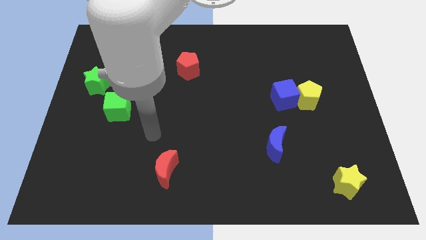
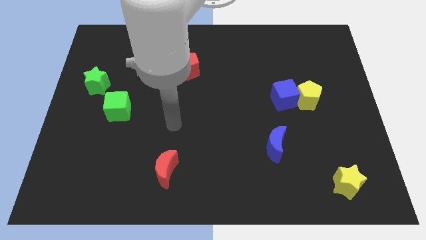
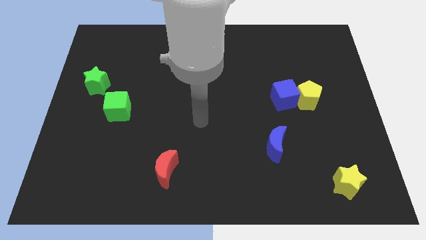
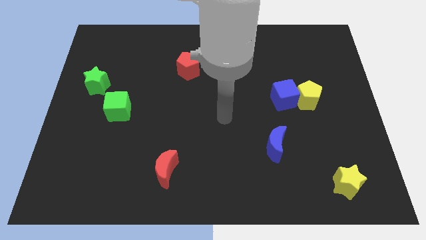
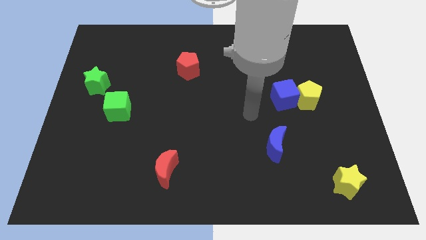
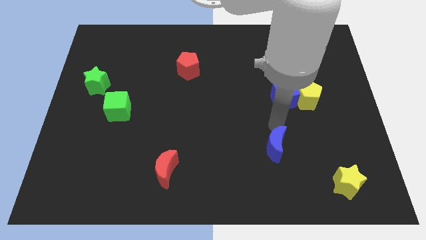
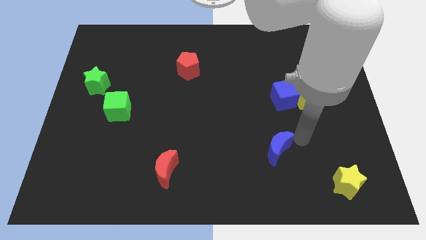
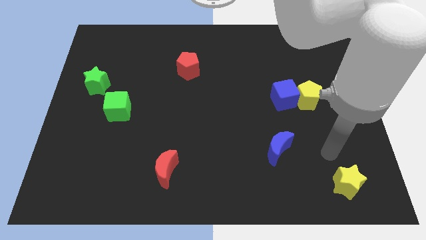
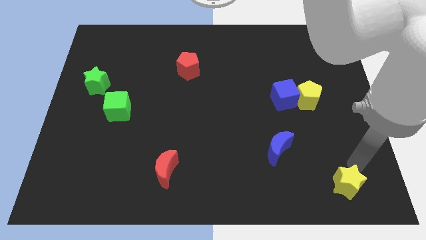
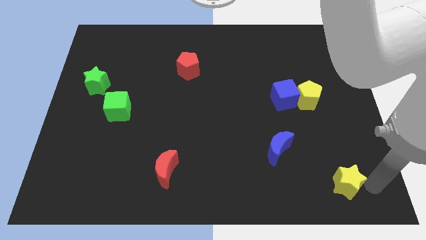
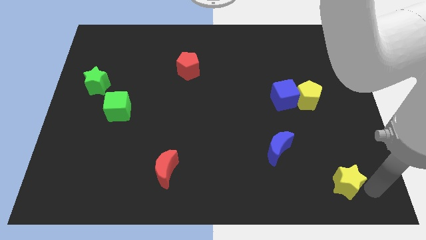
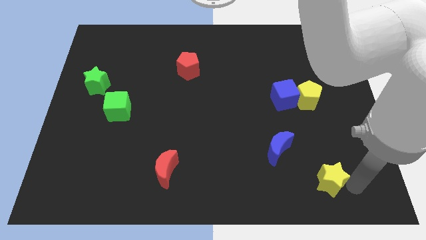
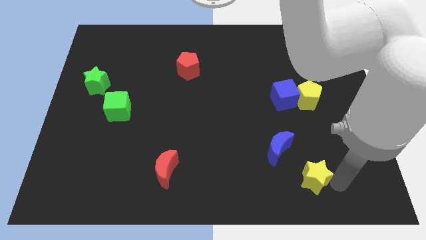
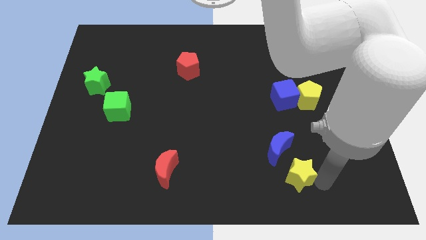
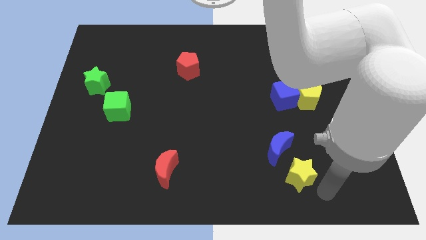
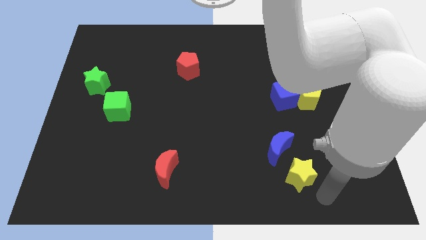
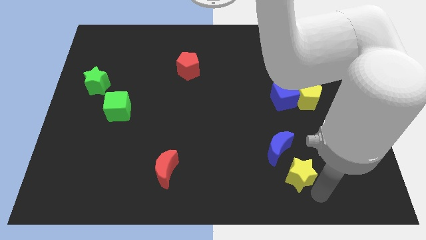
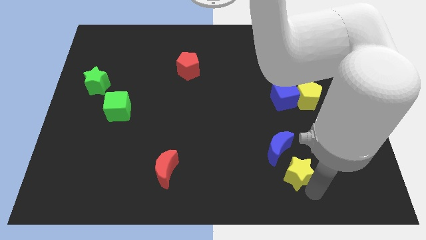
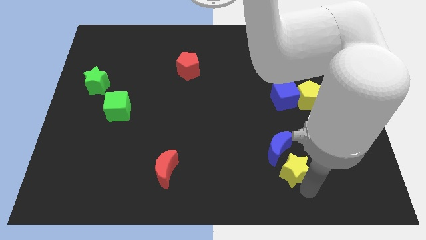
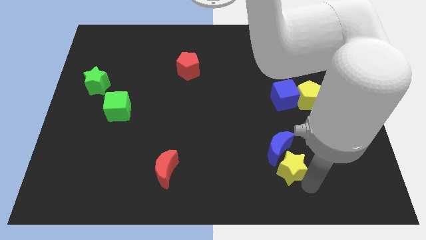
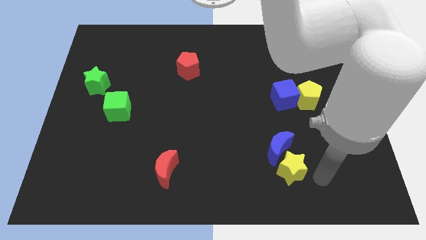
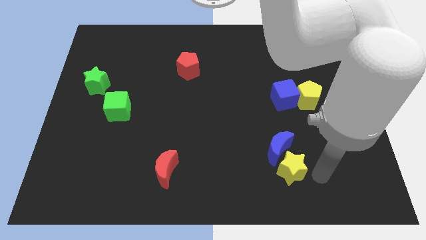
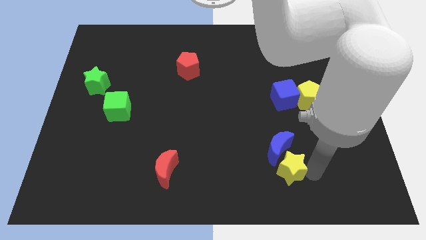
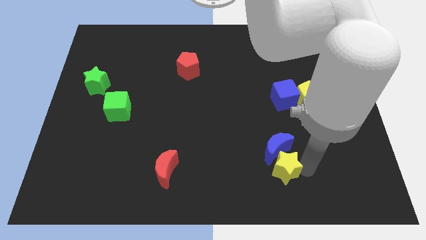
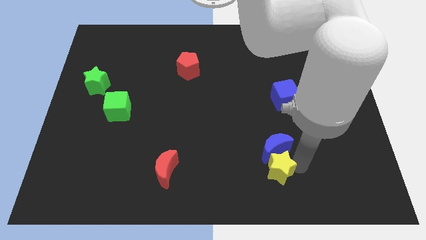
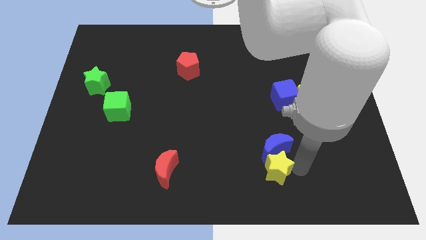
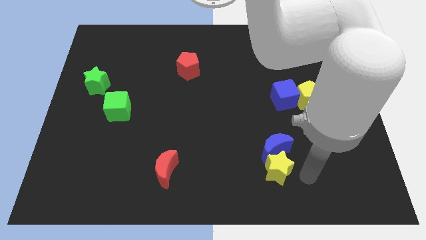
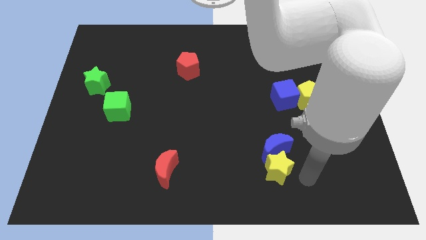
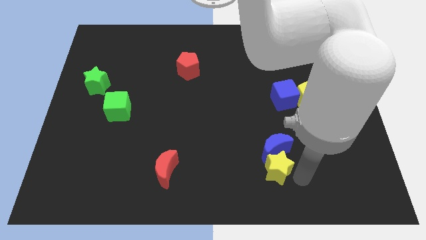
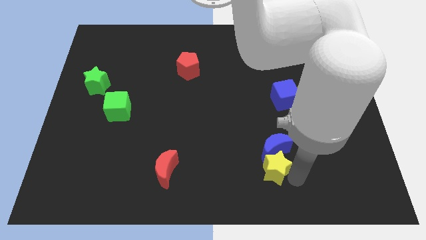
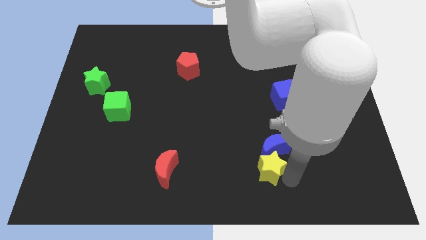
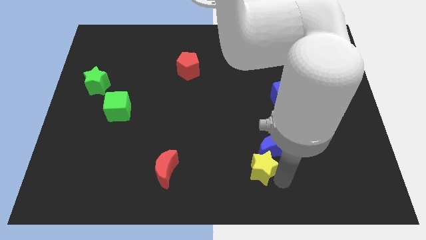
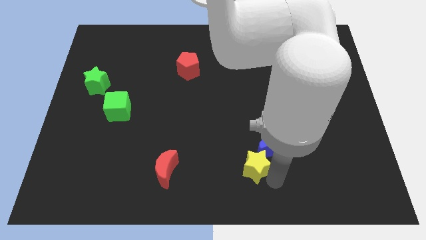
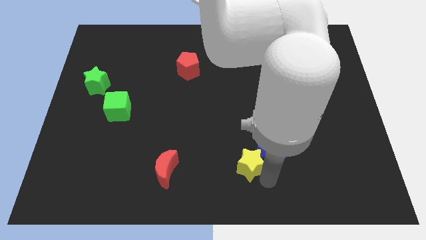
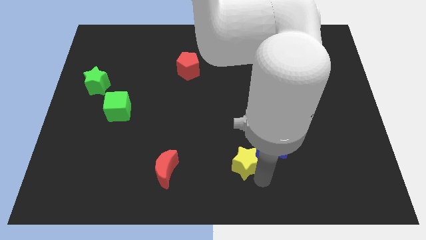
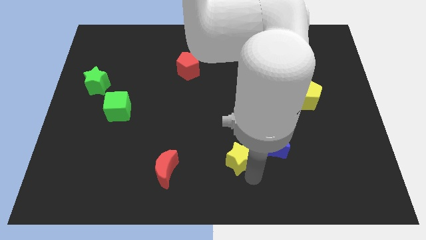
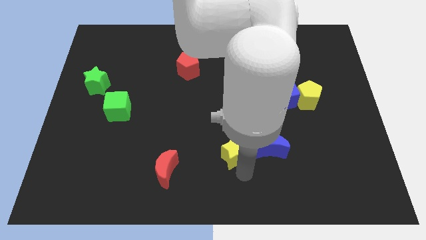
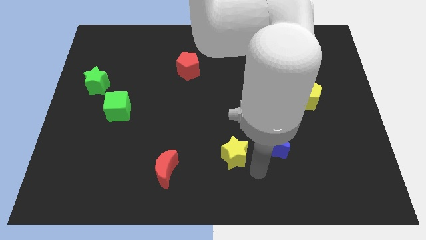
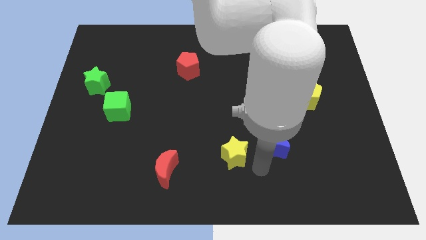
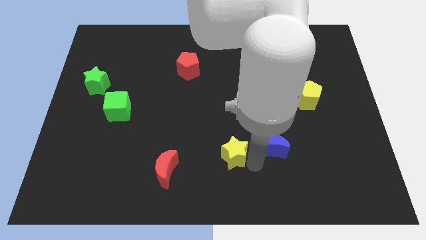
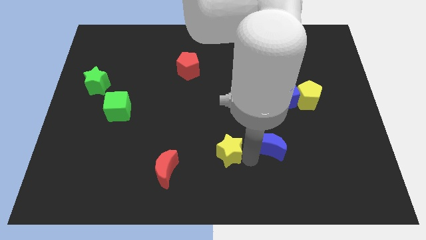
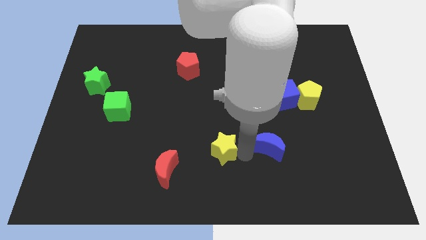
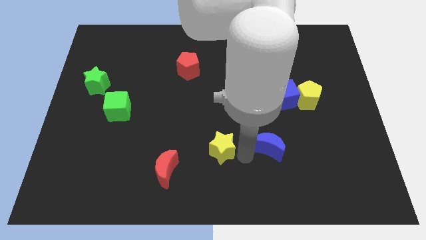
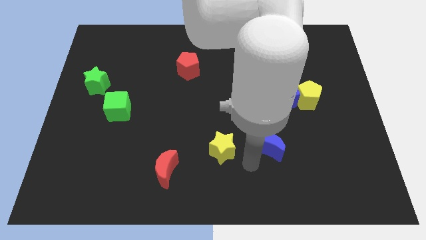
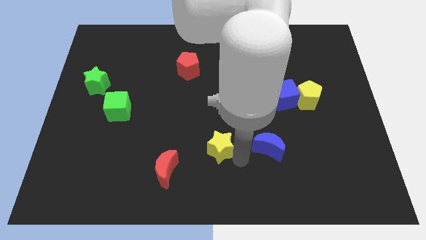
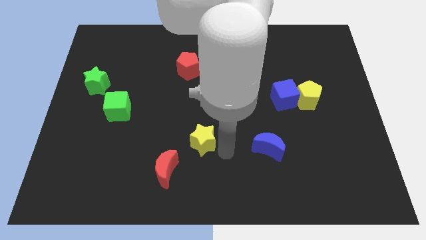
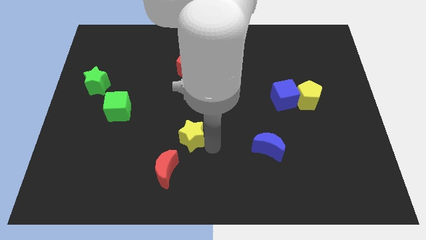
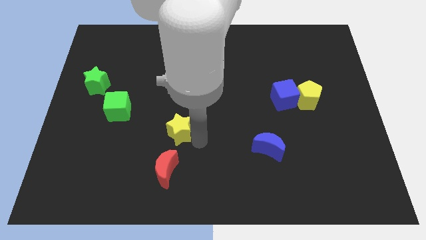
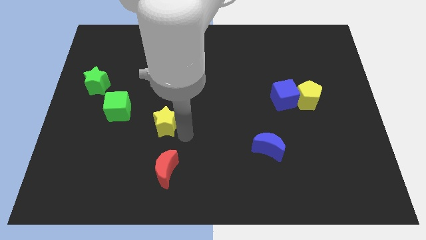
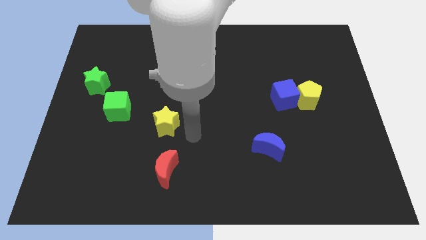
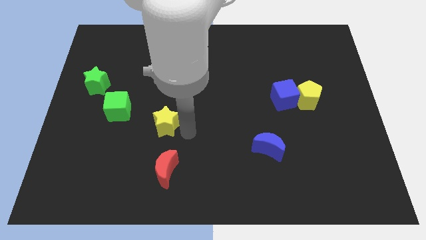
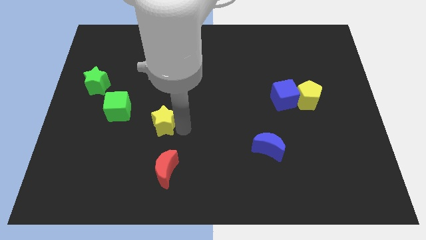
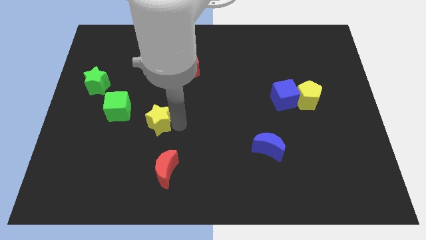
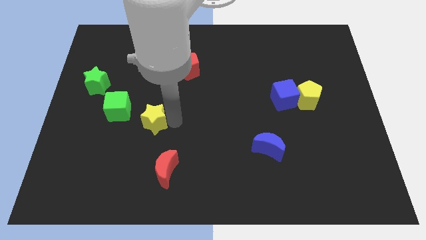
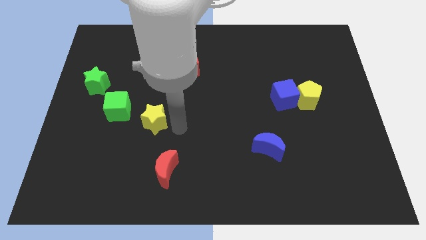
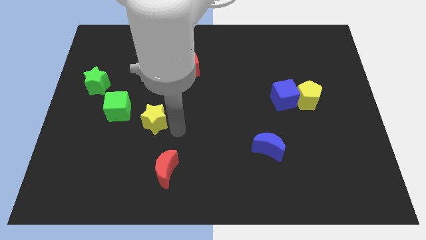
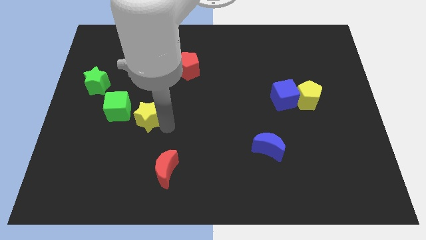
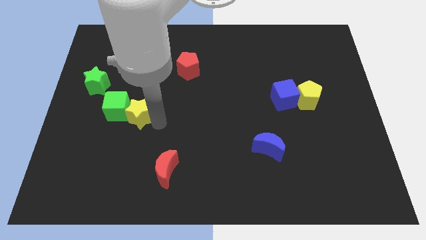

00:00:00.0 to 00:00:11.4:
push the yellow star close to the green cube

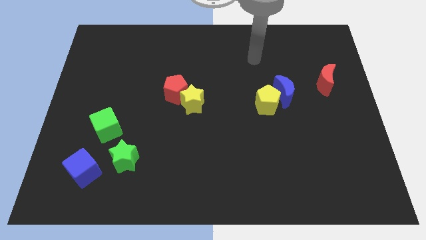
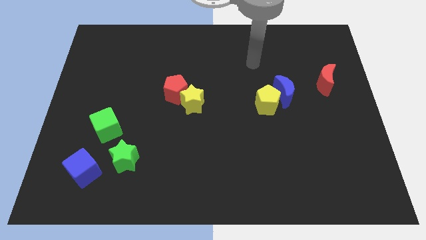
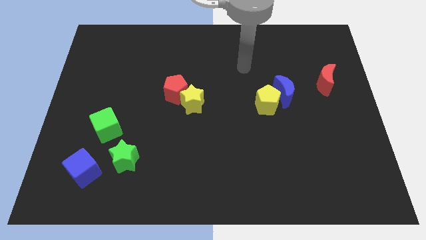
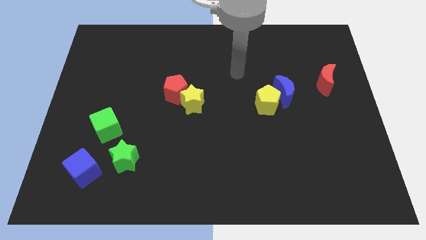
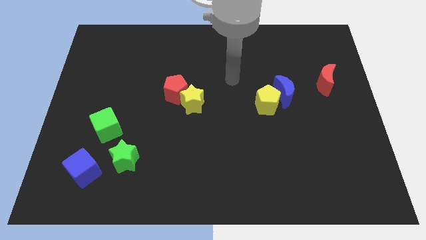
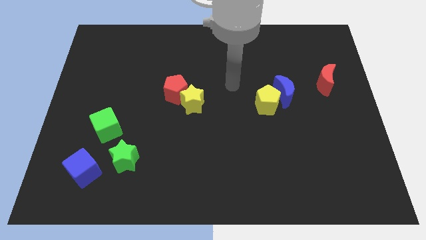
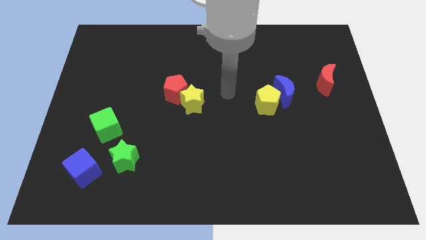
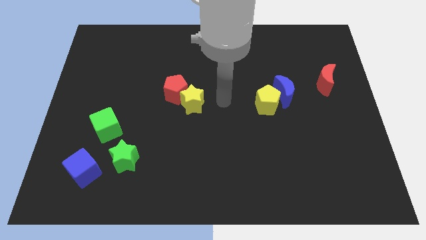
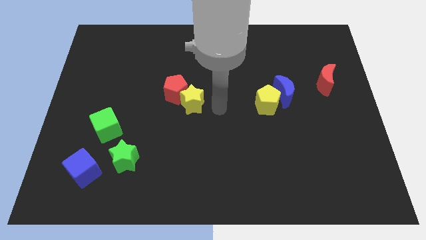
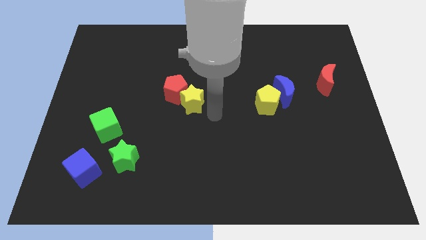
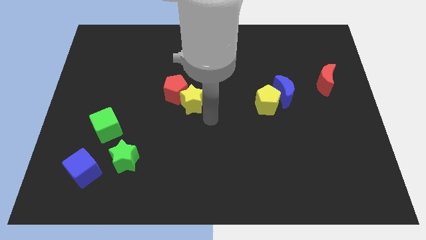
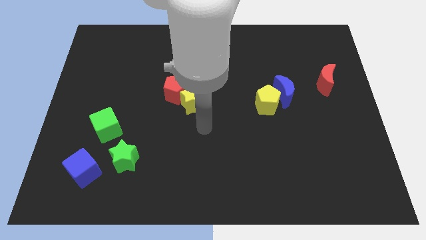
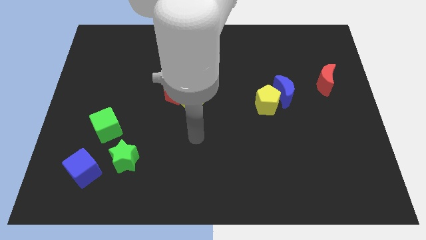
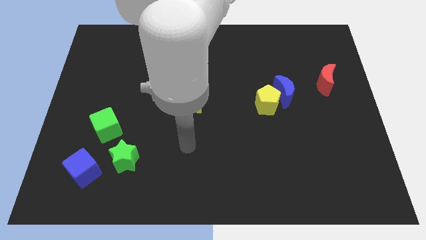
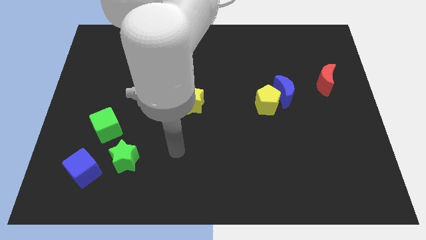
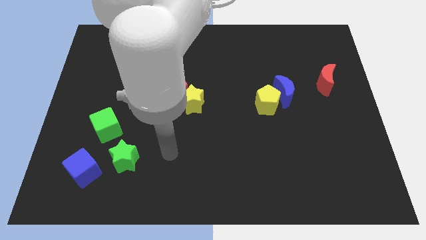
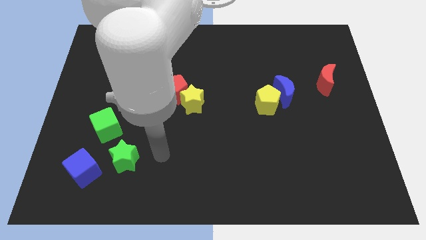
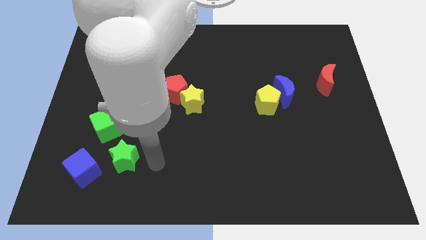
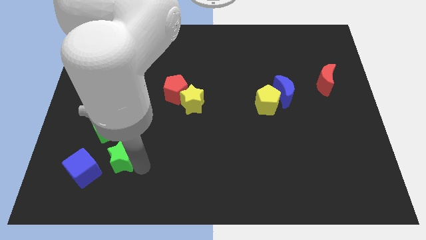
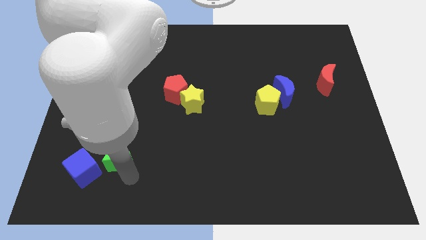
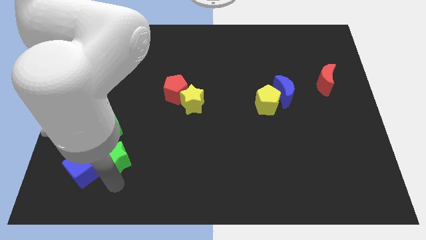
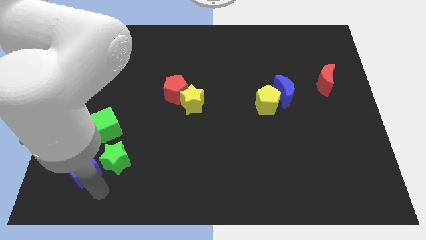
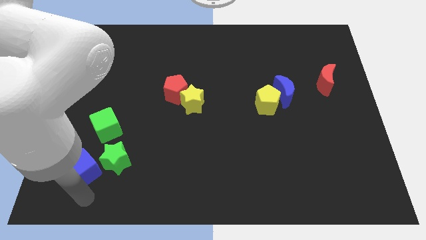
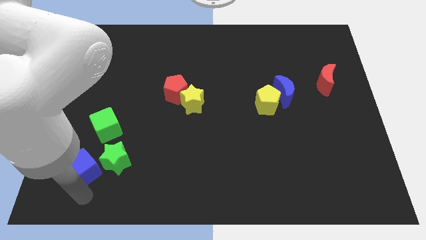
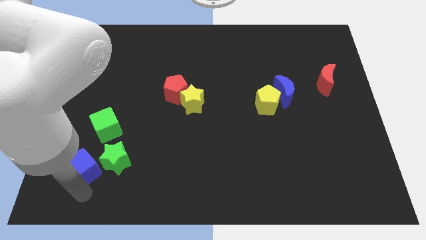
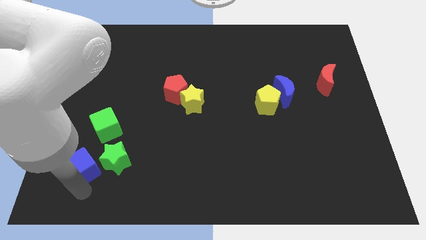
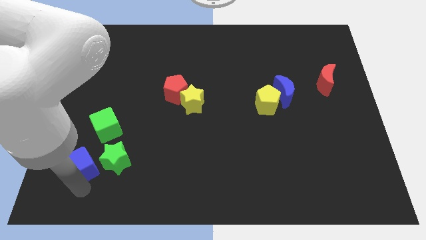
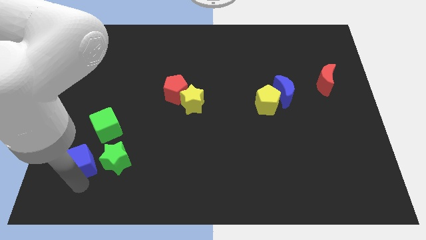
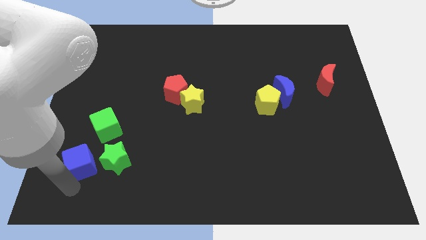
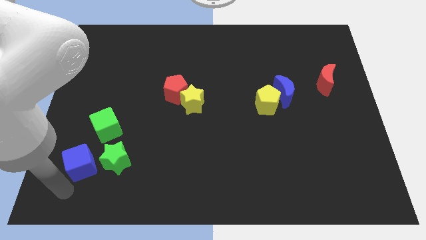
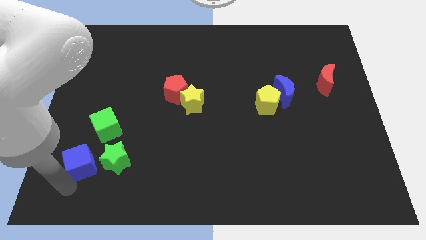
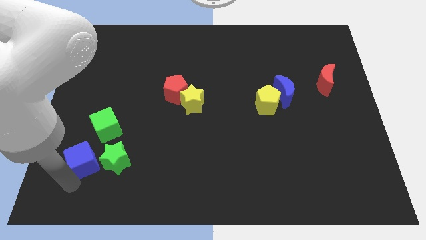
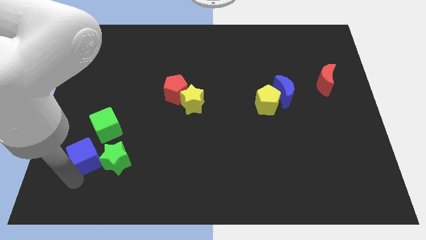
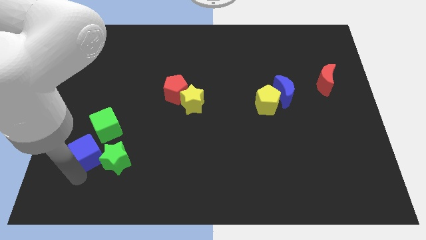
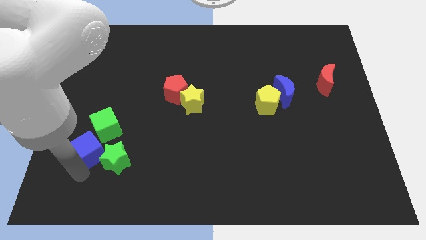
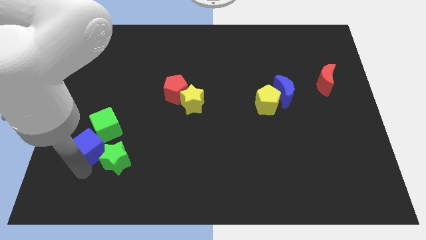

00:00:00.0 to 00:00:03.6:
push the blue cube next to the green cube
